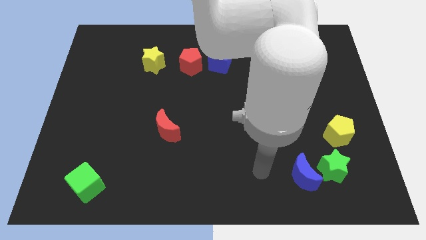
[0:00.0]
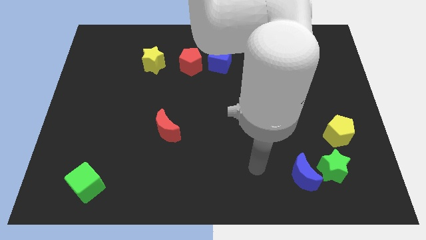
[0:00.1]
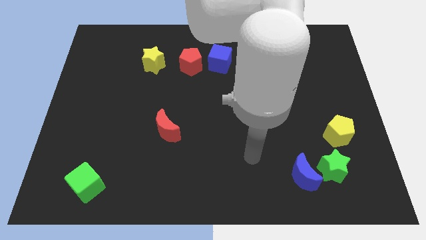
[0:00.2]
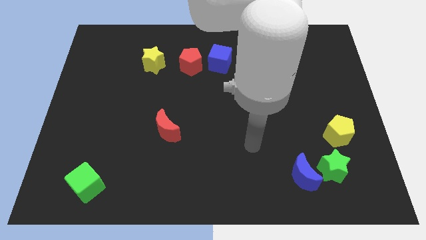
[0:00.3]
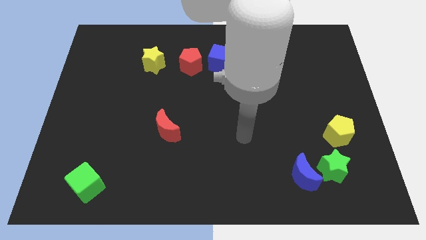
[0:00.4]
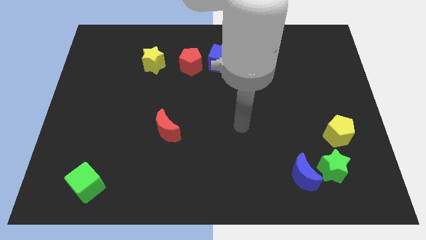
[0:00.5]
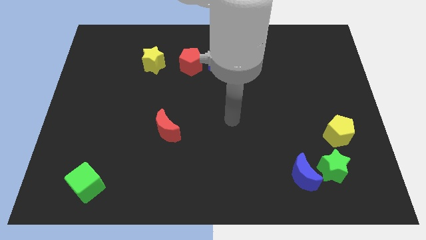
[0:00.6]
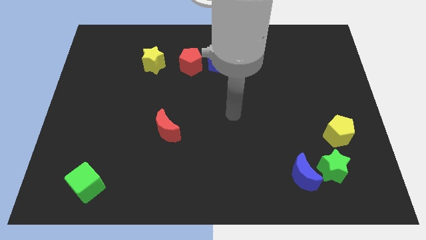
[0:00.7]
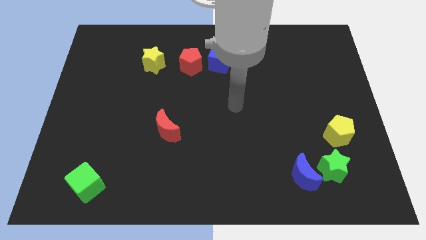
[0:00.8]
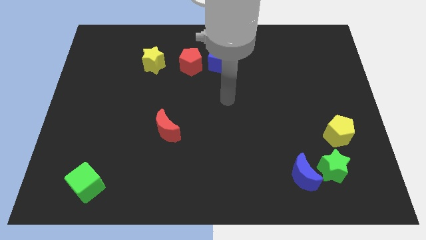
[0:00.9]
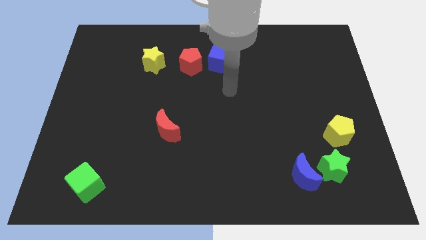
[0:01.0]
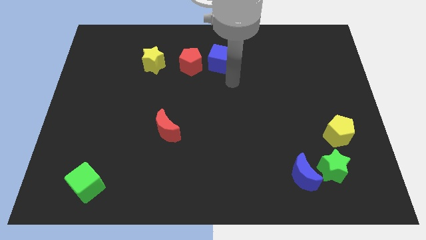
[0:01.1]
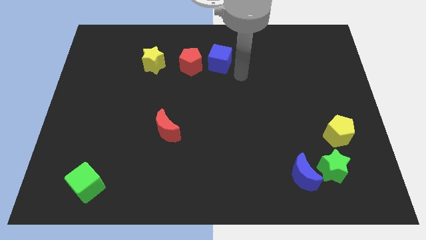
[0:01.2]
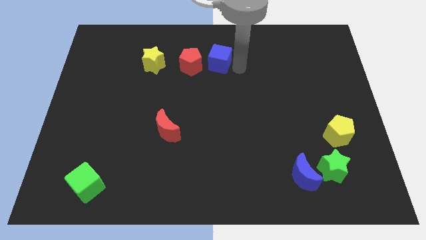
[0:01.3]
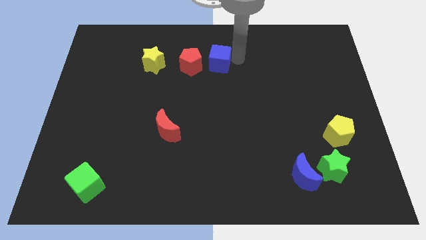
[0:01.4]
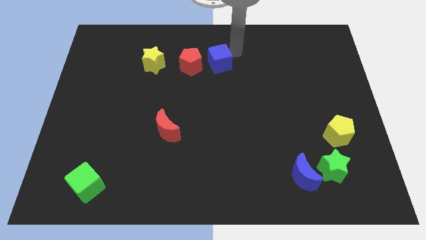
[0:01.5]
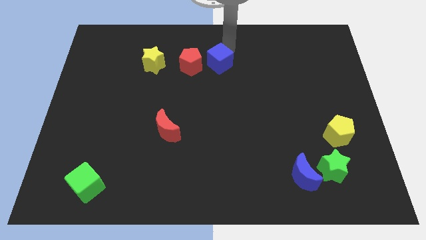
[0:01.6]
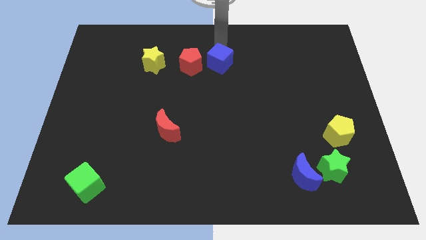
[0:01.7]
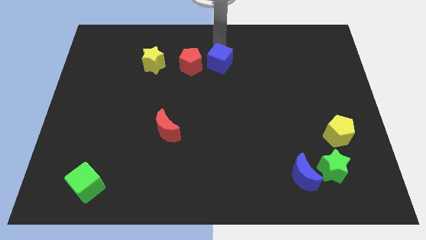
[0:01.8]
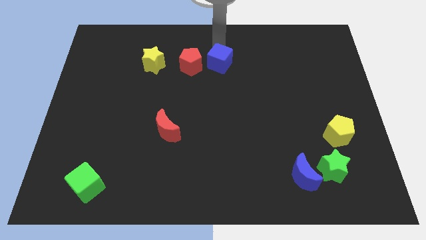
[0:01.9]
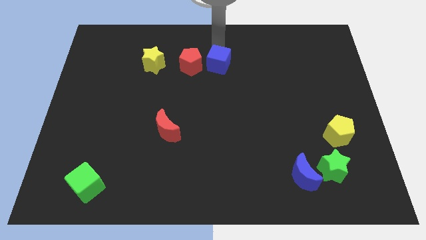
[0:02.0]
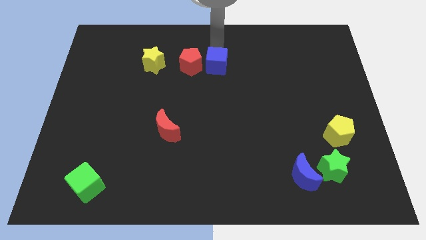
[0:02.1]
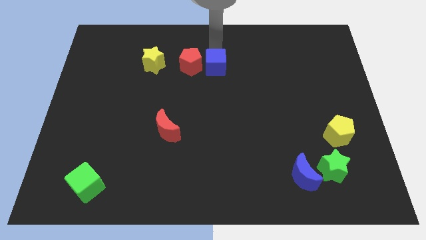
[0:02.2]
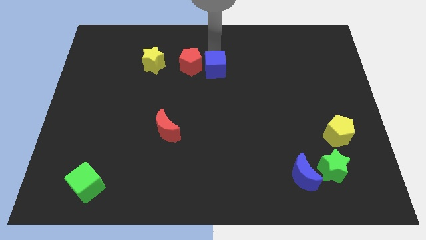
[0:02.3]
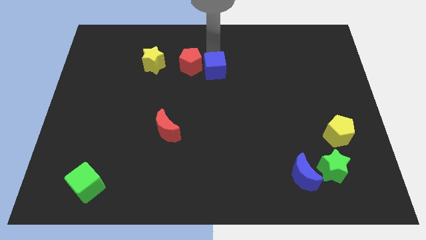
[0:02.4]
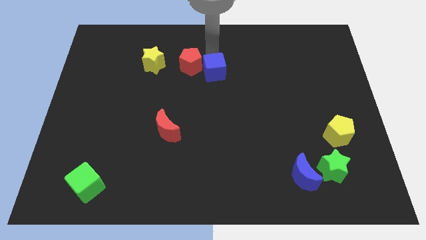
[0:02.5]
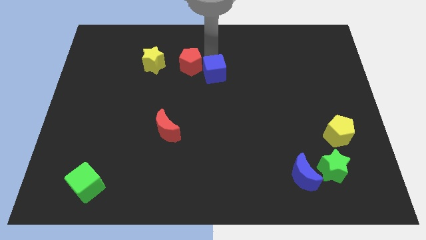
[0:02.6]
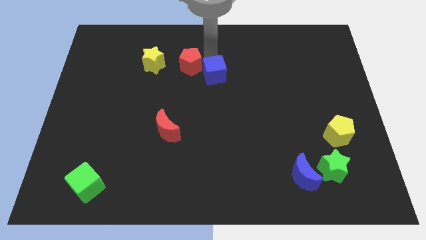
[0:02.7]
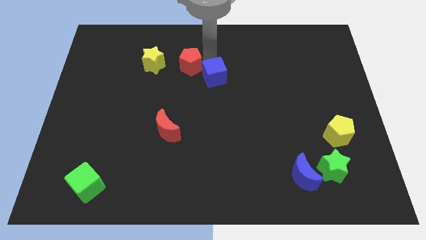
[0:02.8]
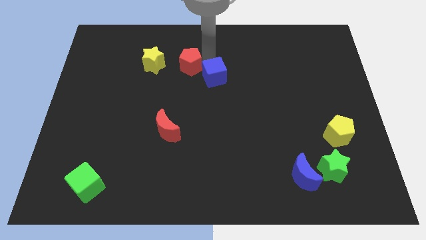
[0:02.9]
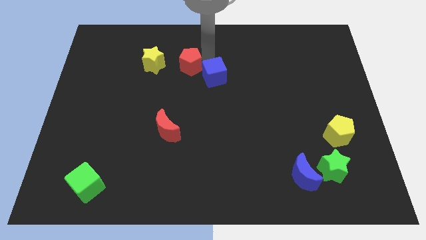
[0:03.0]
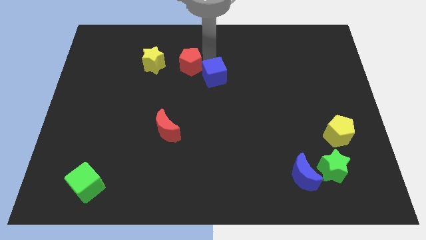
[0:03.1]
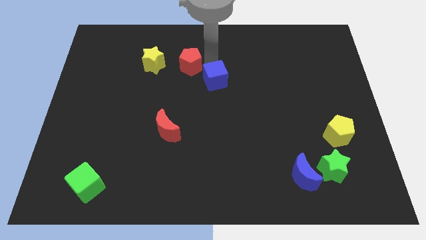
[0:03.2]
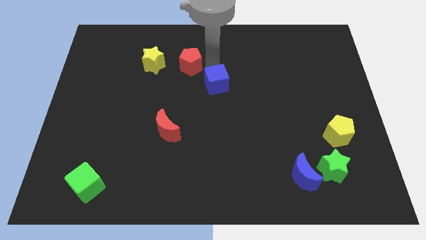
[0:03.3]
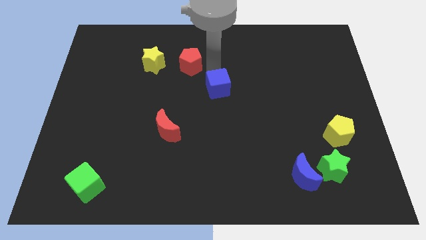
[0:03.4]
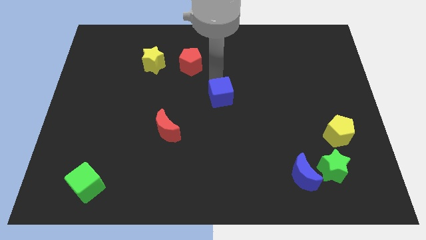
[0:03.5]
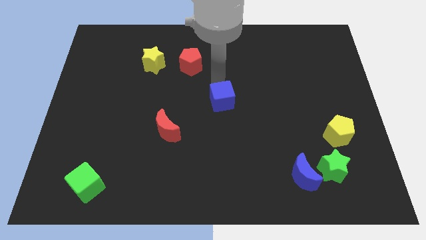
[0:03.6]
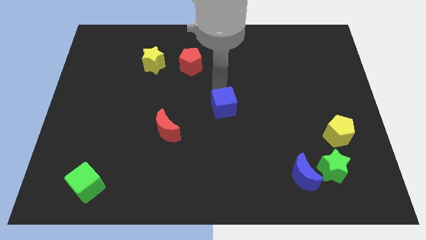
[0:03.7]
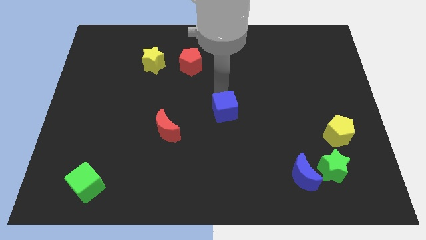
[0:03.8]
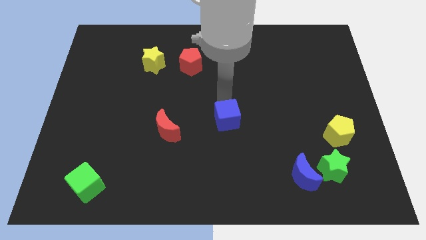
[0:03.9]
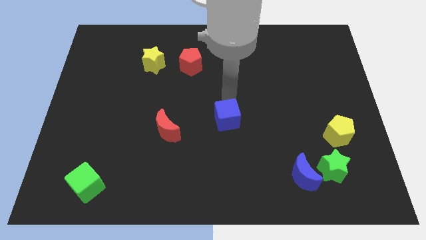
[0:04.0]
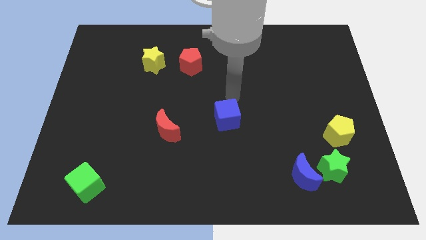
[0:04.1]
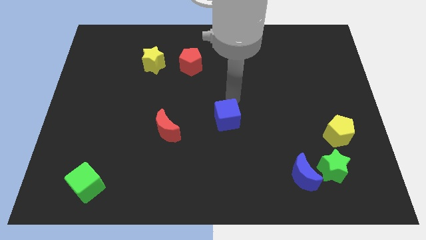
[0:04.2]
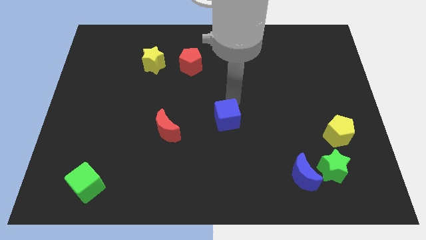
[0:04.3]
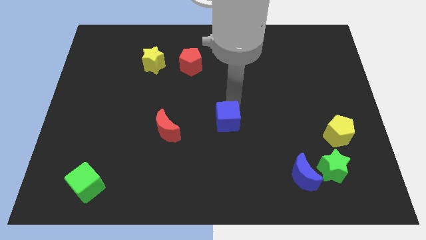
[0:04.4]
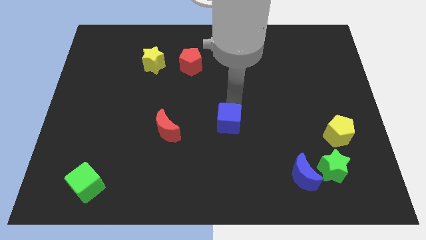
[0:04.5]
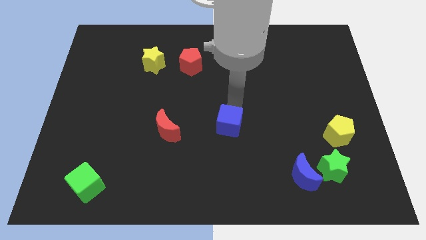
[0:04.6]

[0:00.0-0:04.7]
move the blue cube downwards

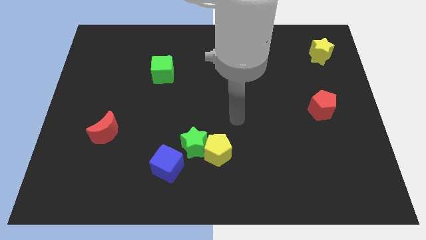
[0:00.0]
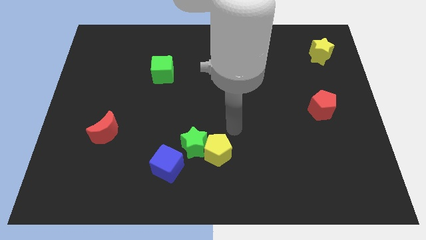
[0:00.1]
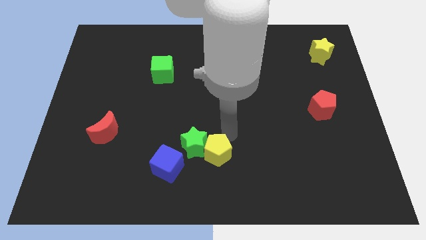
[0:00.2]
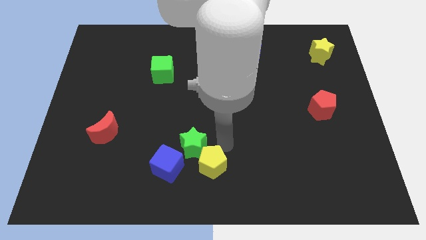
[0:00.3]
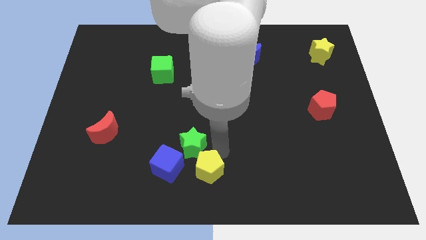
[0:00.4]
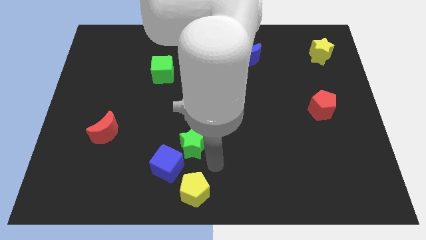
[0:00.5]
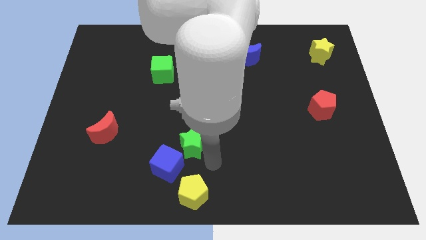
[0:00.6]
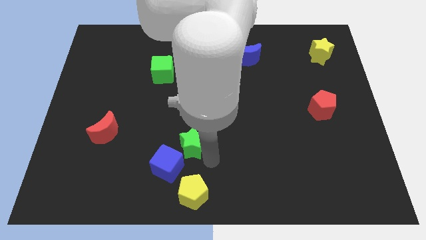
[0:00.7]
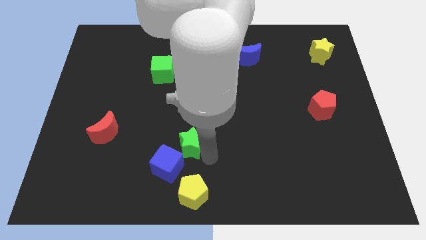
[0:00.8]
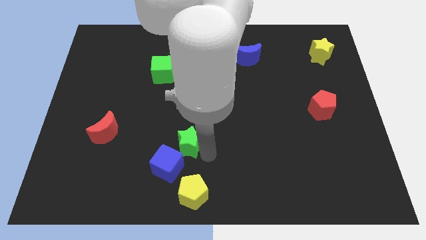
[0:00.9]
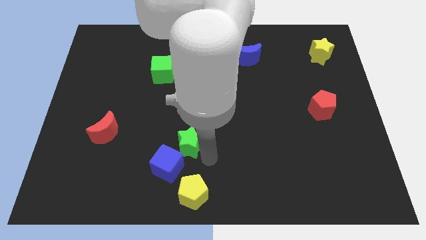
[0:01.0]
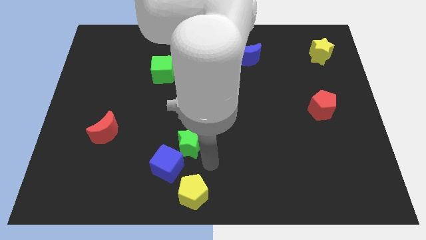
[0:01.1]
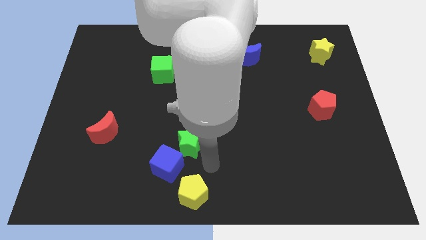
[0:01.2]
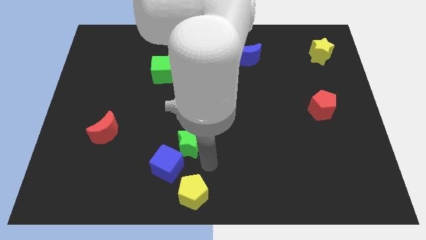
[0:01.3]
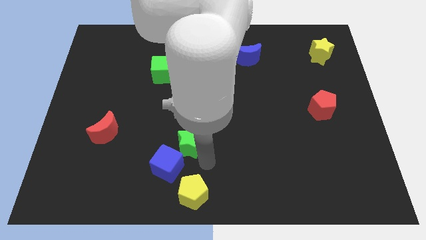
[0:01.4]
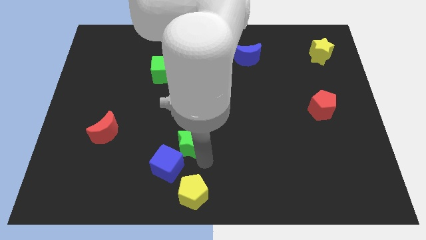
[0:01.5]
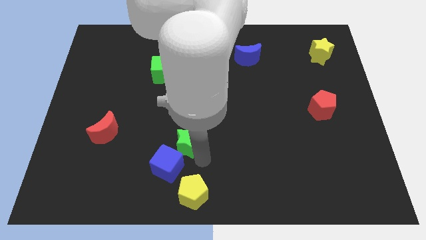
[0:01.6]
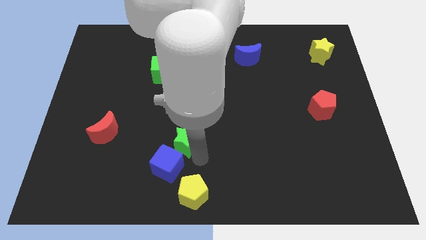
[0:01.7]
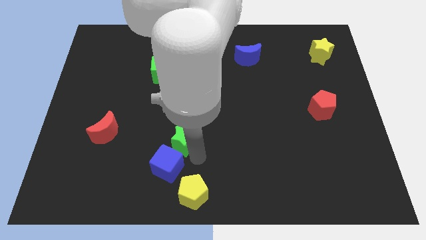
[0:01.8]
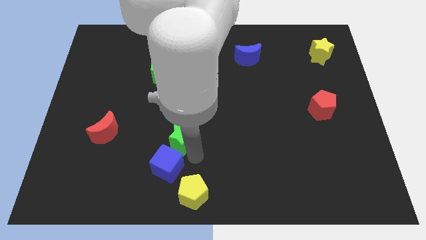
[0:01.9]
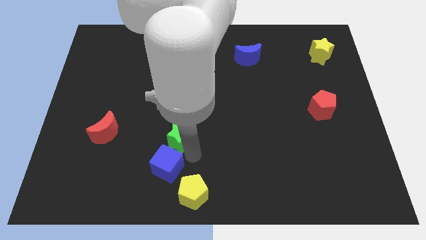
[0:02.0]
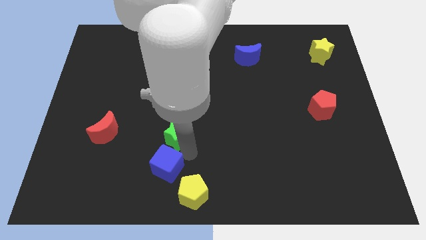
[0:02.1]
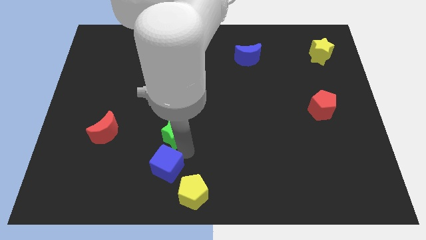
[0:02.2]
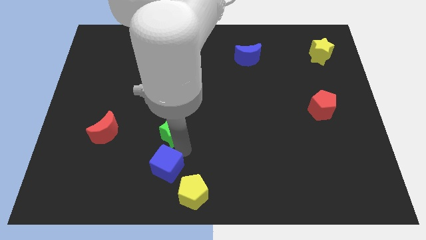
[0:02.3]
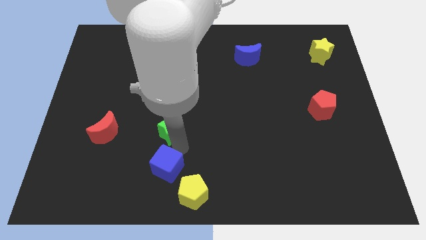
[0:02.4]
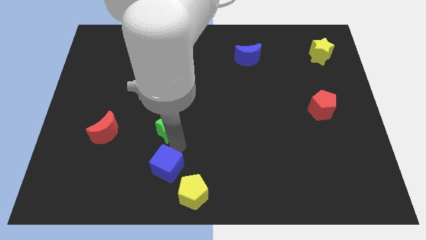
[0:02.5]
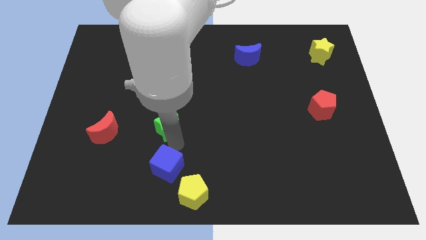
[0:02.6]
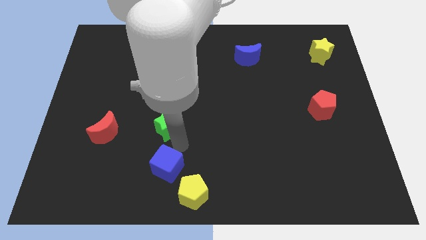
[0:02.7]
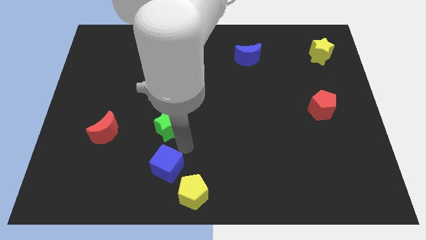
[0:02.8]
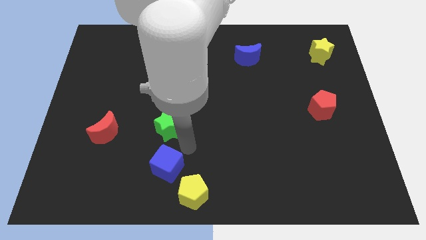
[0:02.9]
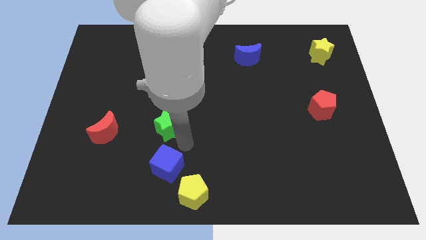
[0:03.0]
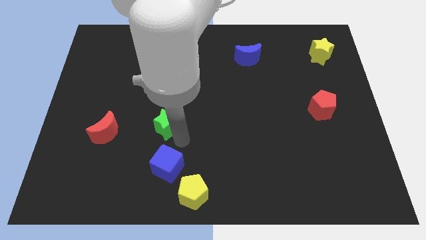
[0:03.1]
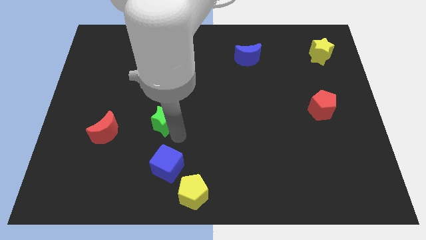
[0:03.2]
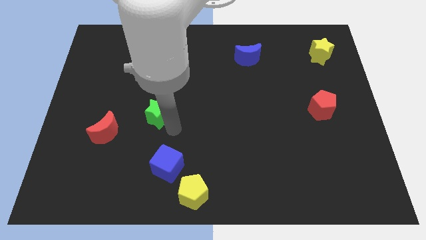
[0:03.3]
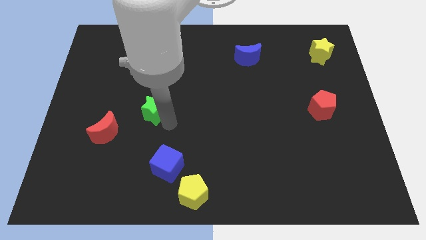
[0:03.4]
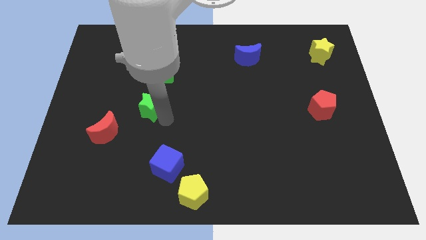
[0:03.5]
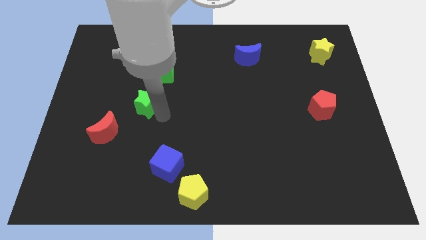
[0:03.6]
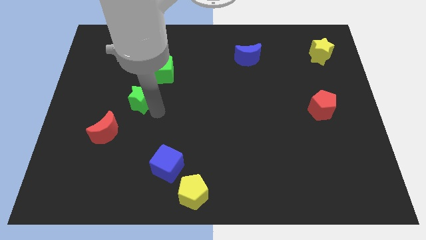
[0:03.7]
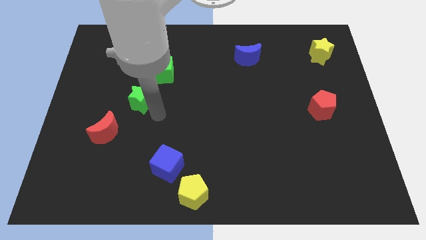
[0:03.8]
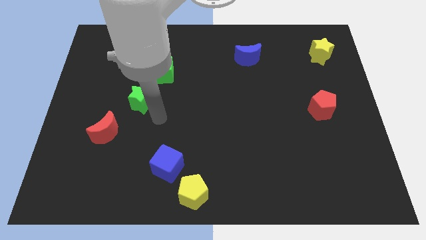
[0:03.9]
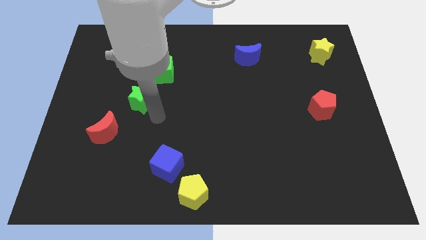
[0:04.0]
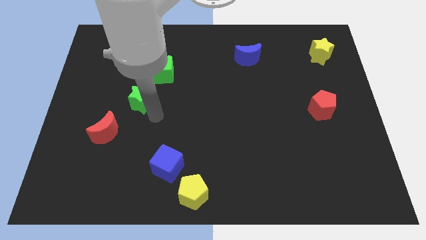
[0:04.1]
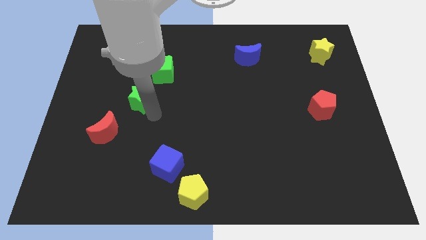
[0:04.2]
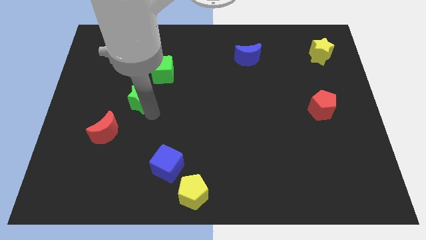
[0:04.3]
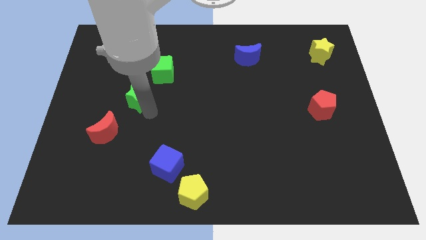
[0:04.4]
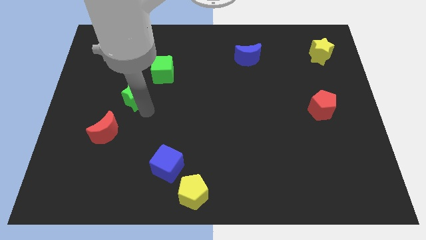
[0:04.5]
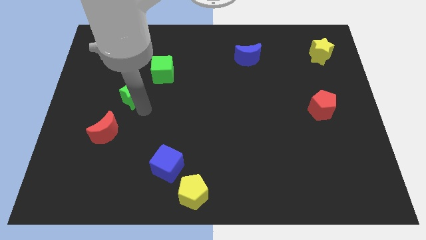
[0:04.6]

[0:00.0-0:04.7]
push the green star up and then left
